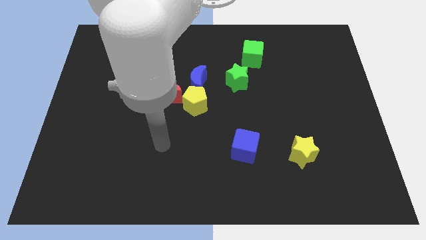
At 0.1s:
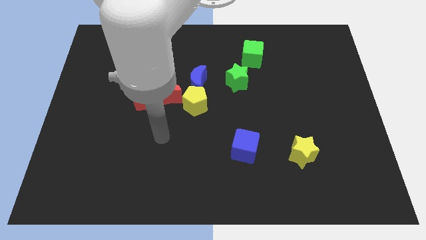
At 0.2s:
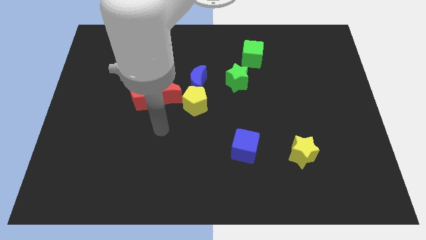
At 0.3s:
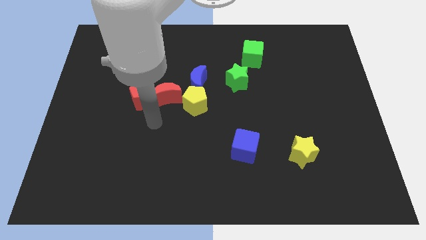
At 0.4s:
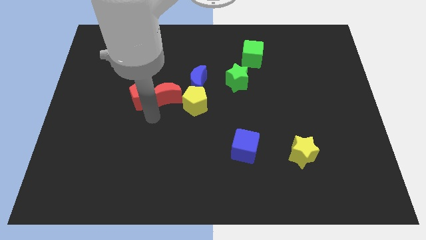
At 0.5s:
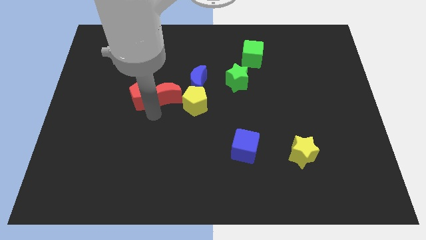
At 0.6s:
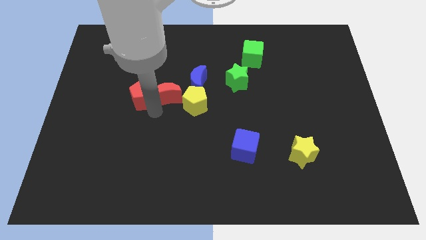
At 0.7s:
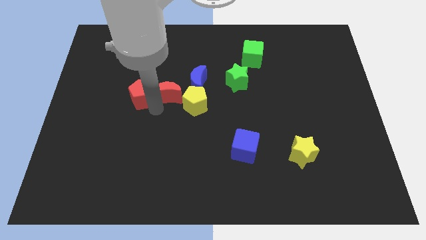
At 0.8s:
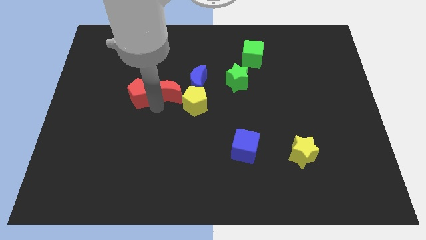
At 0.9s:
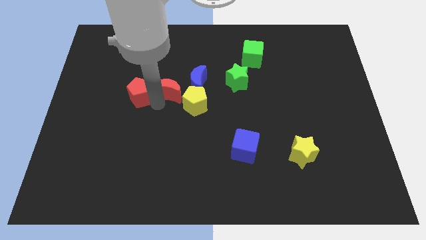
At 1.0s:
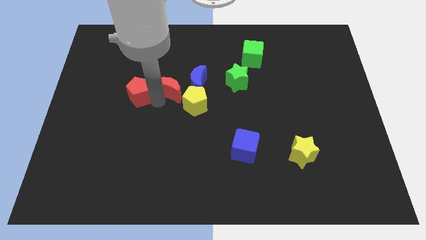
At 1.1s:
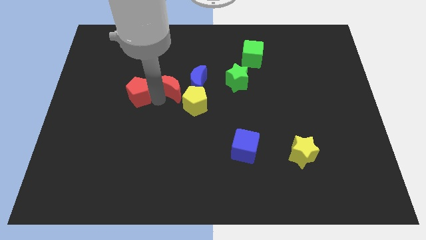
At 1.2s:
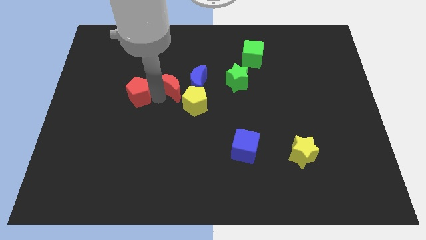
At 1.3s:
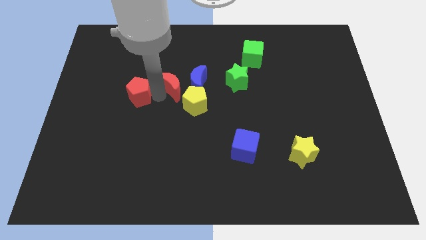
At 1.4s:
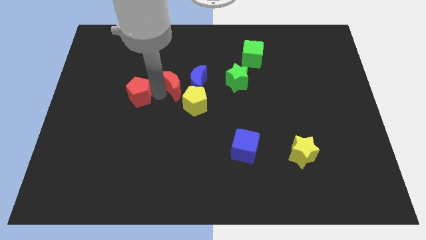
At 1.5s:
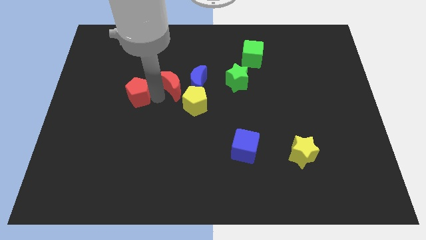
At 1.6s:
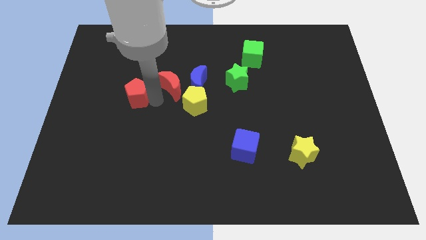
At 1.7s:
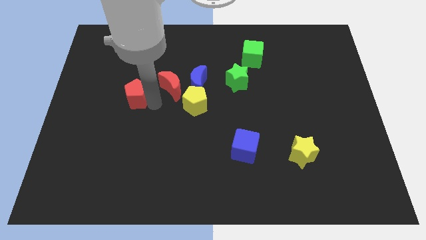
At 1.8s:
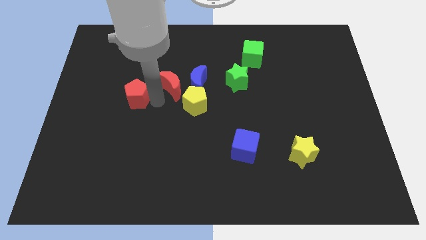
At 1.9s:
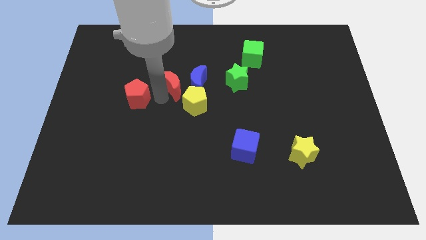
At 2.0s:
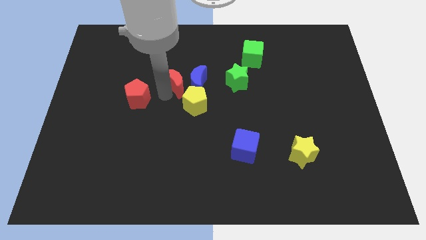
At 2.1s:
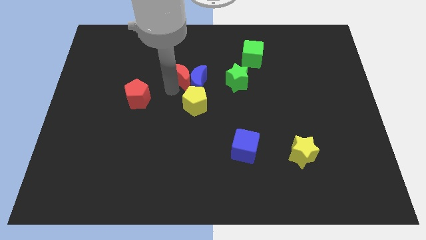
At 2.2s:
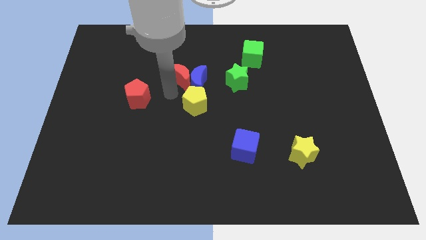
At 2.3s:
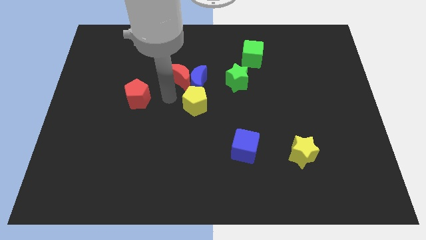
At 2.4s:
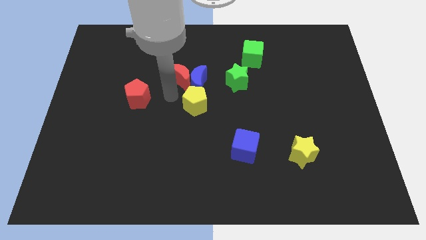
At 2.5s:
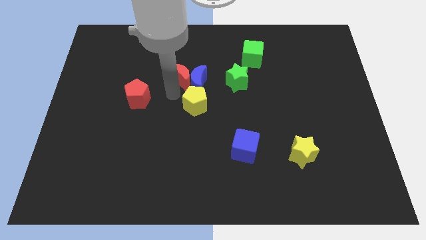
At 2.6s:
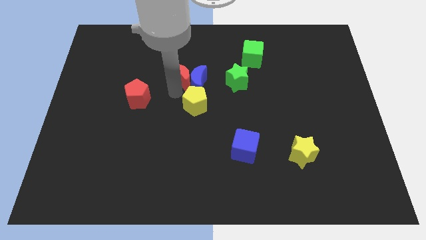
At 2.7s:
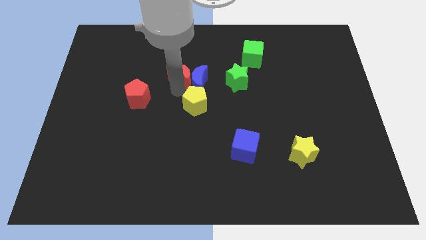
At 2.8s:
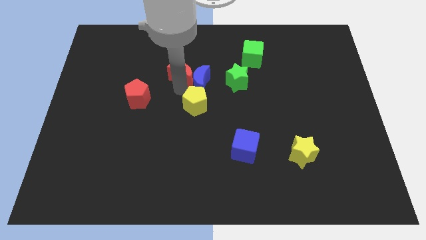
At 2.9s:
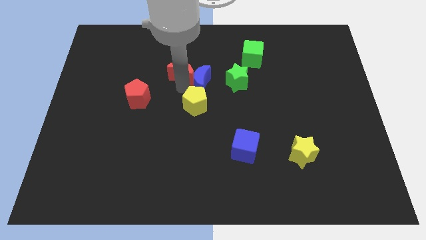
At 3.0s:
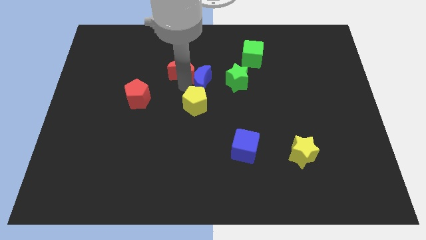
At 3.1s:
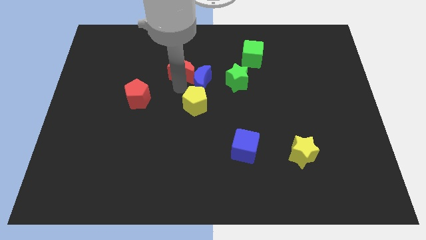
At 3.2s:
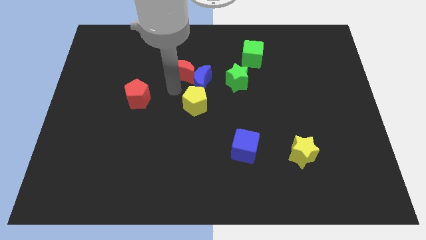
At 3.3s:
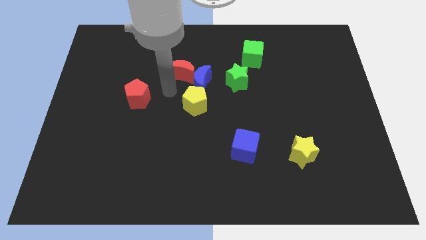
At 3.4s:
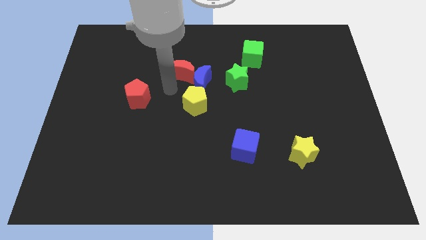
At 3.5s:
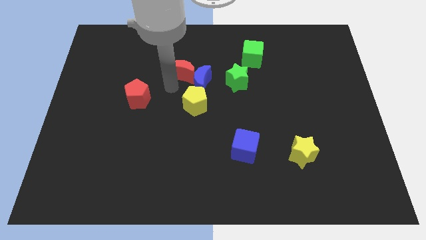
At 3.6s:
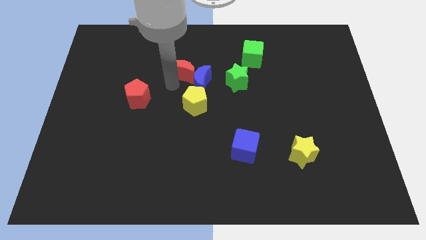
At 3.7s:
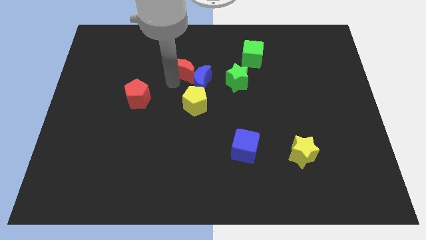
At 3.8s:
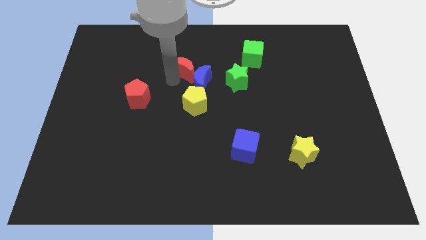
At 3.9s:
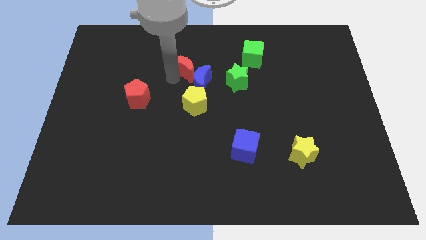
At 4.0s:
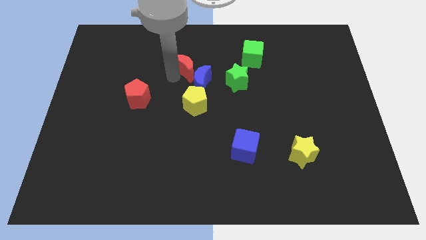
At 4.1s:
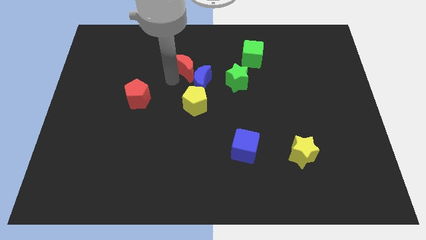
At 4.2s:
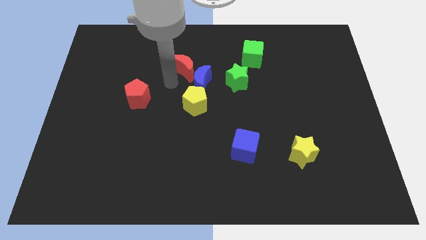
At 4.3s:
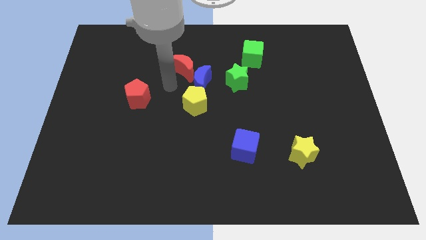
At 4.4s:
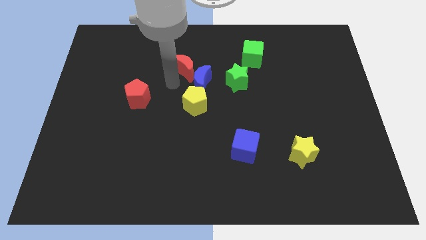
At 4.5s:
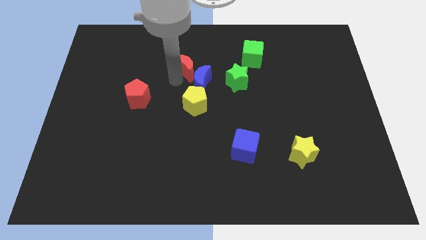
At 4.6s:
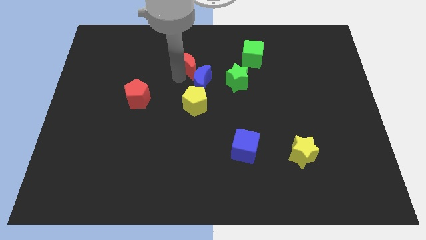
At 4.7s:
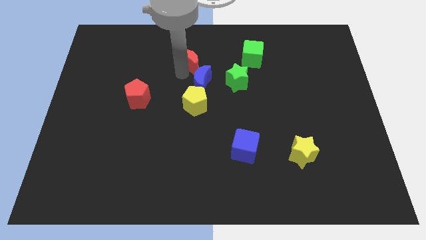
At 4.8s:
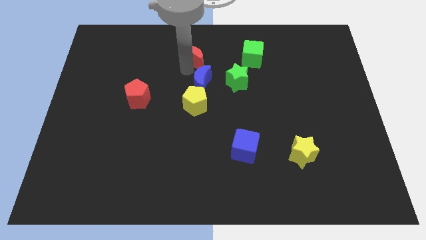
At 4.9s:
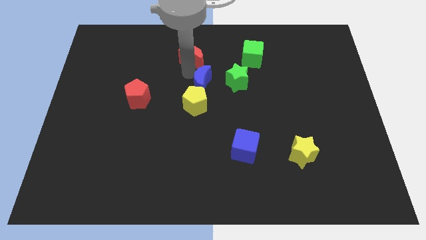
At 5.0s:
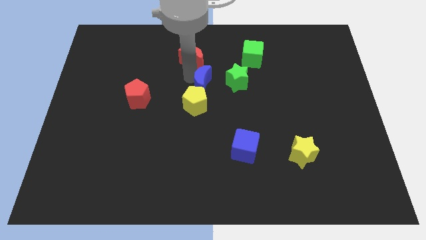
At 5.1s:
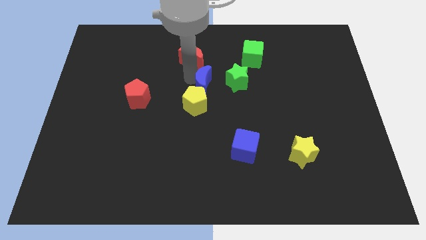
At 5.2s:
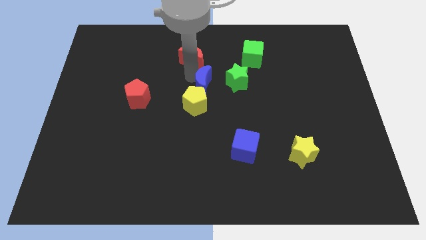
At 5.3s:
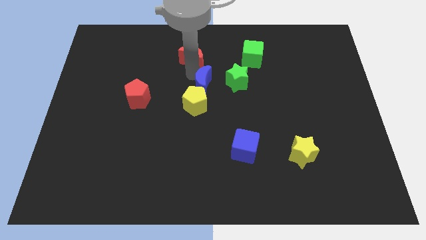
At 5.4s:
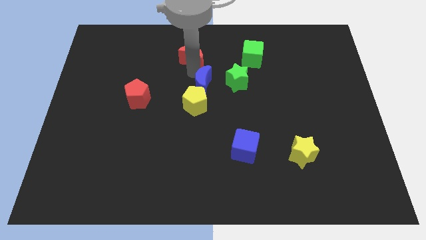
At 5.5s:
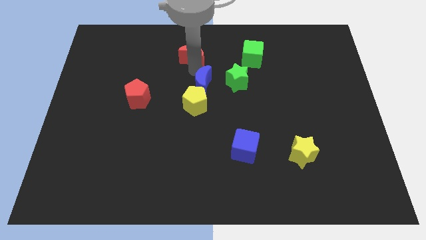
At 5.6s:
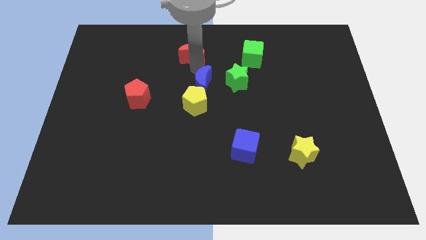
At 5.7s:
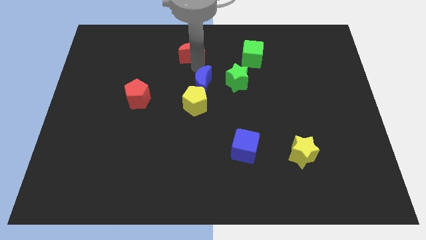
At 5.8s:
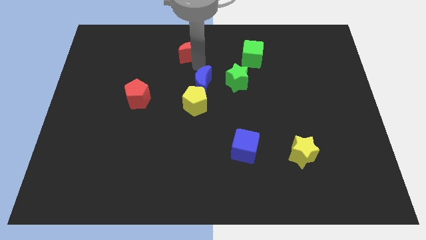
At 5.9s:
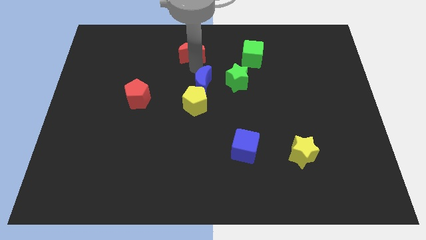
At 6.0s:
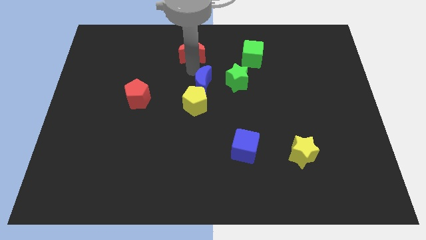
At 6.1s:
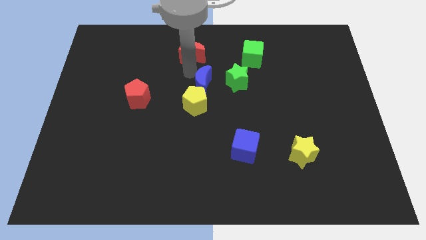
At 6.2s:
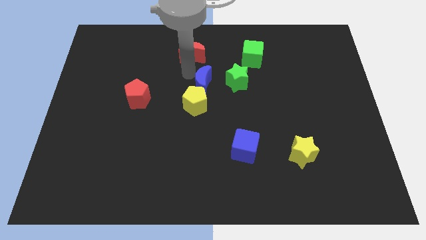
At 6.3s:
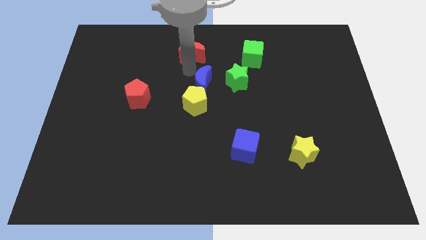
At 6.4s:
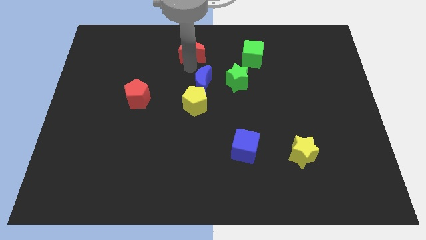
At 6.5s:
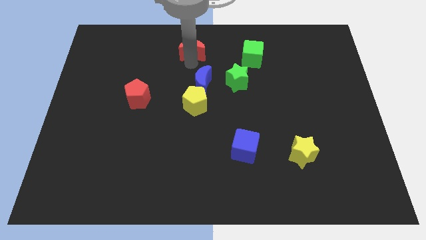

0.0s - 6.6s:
move the red moon to the towards your base
